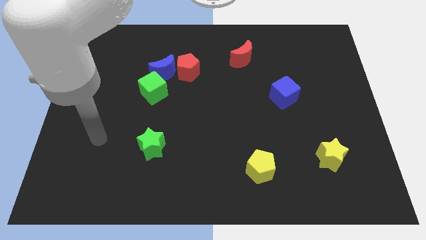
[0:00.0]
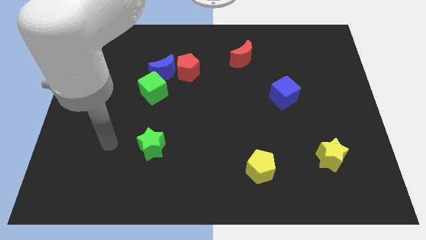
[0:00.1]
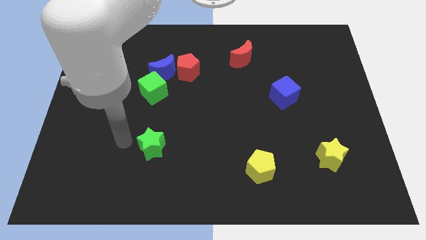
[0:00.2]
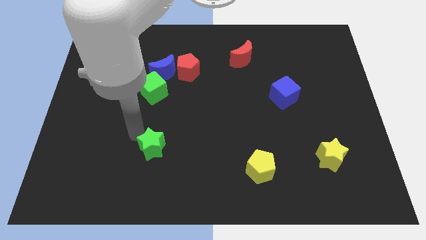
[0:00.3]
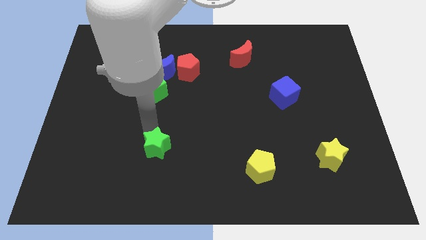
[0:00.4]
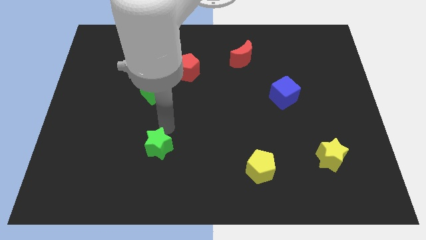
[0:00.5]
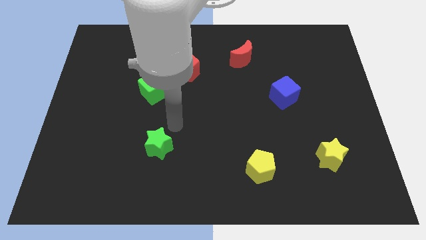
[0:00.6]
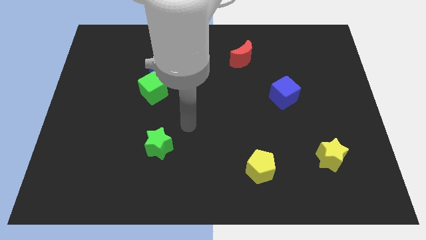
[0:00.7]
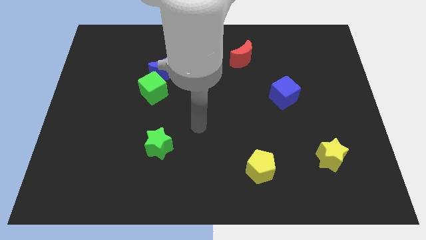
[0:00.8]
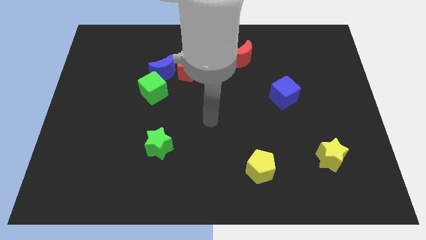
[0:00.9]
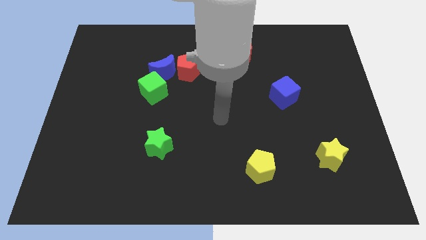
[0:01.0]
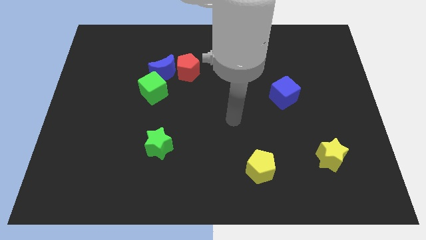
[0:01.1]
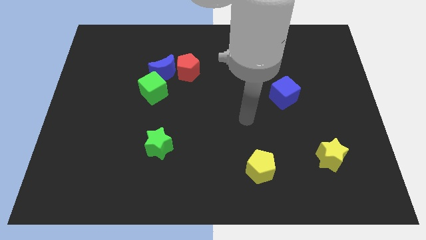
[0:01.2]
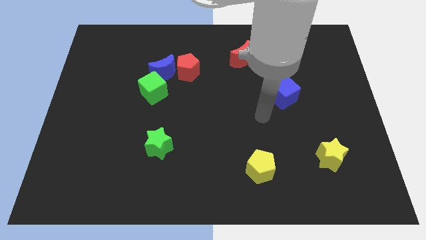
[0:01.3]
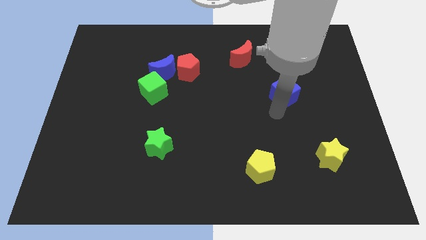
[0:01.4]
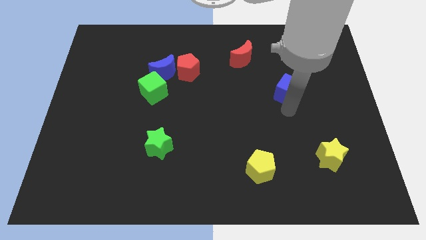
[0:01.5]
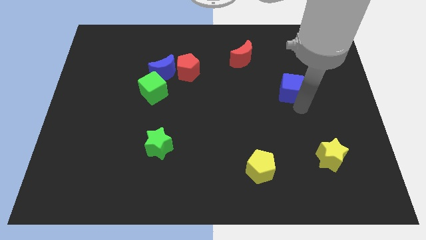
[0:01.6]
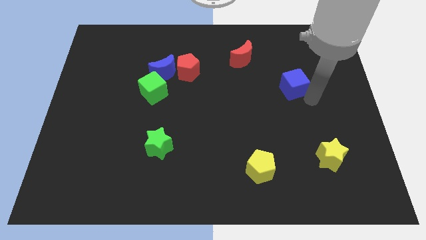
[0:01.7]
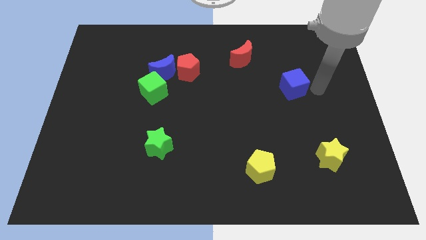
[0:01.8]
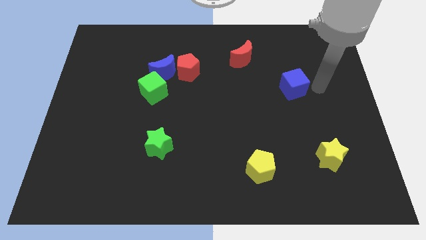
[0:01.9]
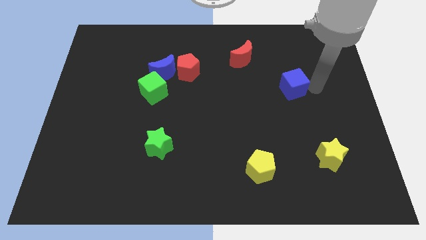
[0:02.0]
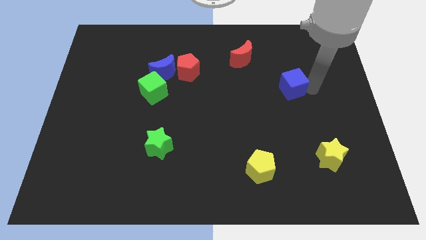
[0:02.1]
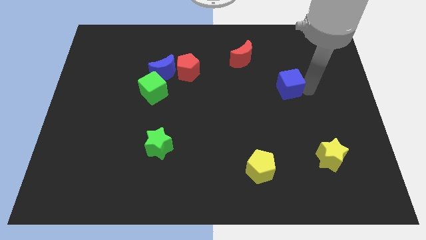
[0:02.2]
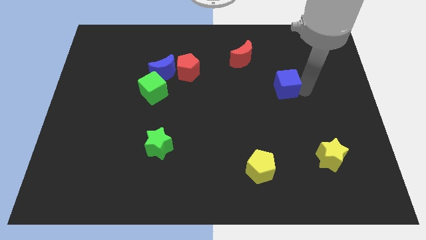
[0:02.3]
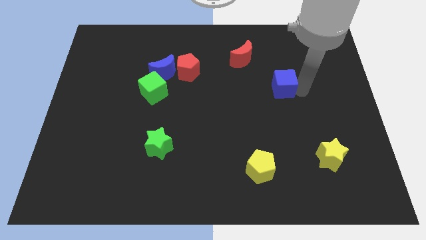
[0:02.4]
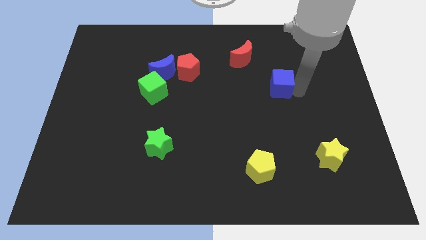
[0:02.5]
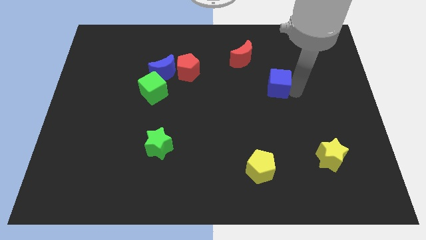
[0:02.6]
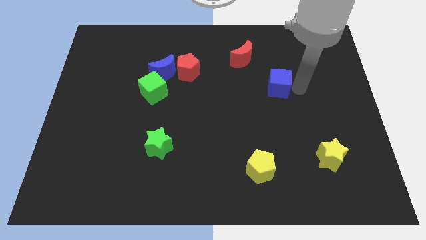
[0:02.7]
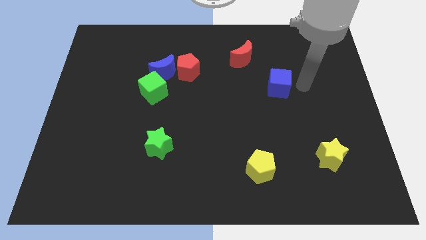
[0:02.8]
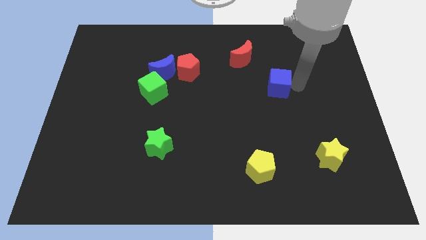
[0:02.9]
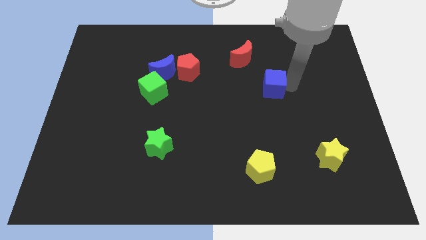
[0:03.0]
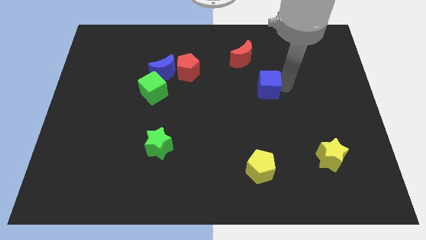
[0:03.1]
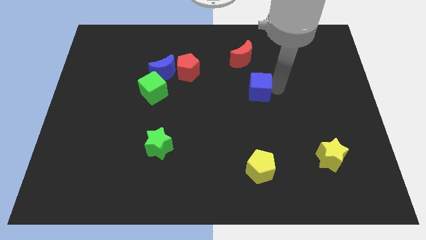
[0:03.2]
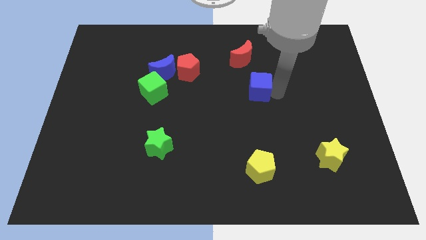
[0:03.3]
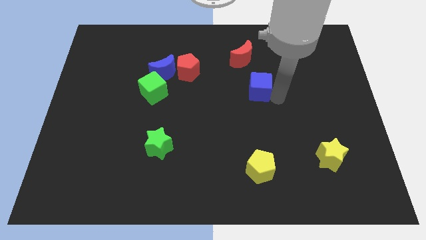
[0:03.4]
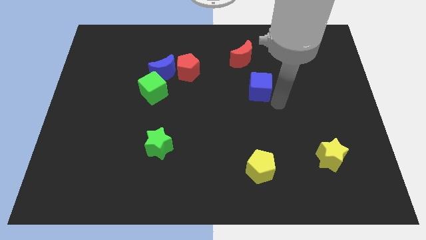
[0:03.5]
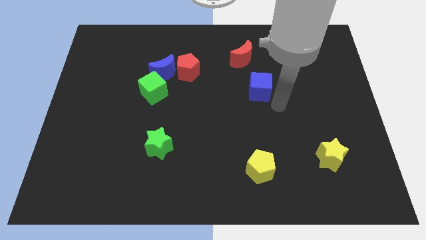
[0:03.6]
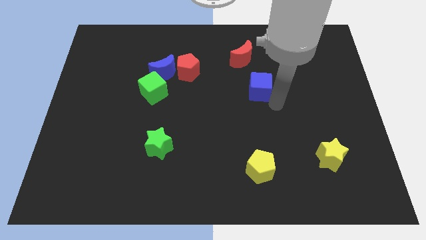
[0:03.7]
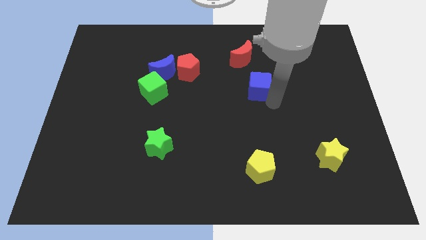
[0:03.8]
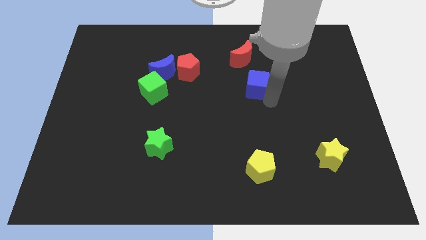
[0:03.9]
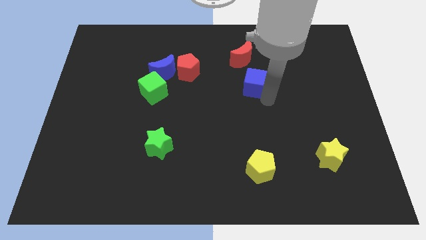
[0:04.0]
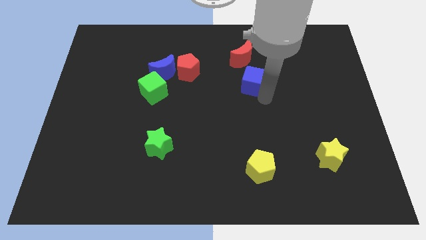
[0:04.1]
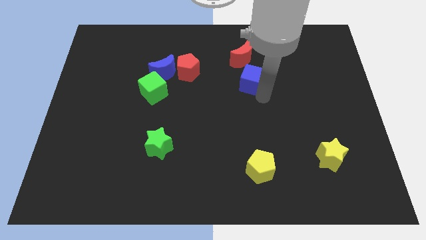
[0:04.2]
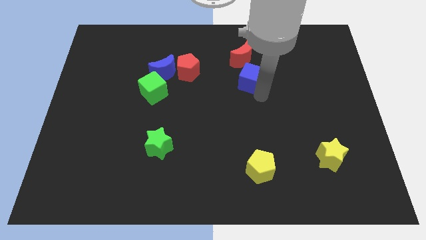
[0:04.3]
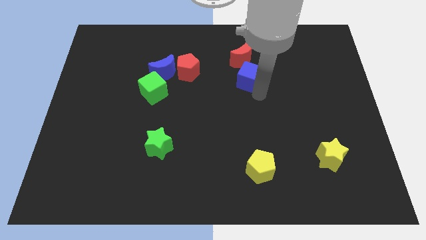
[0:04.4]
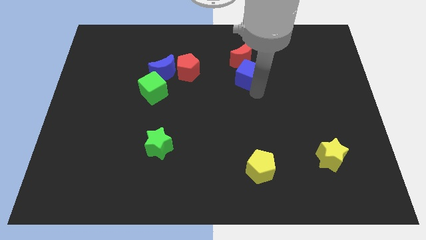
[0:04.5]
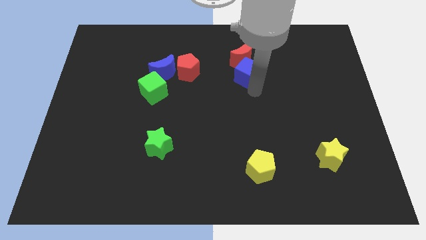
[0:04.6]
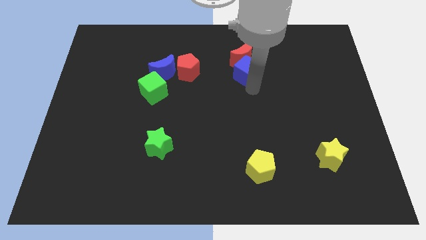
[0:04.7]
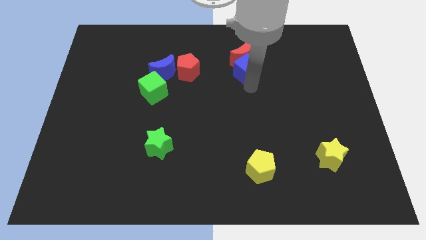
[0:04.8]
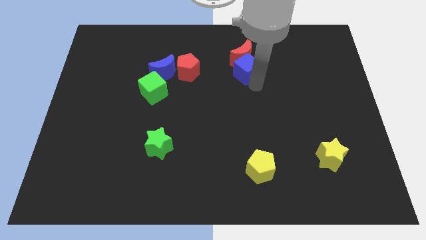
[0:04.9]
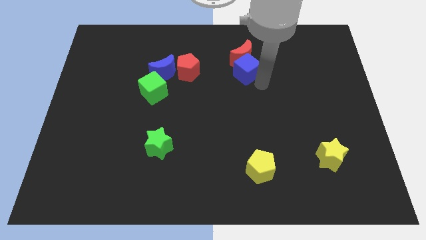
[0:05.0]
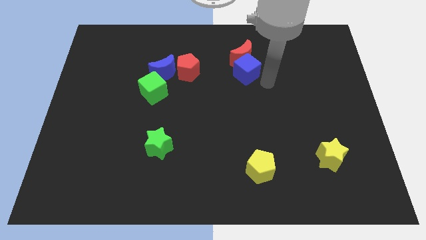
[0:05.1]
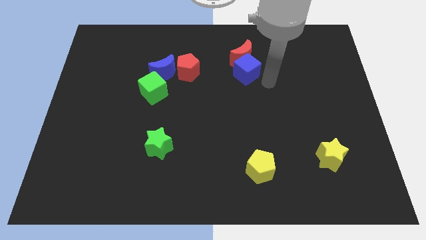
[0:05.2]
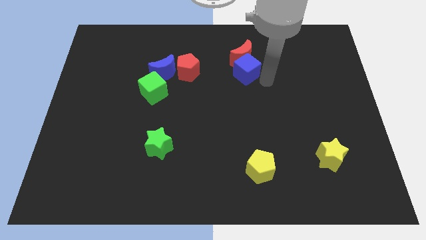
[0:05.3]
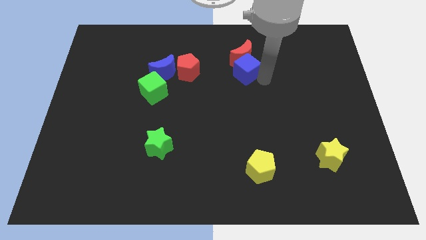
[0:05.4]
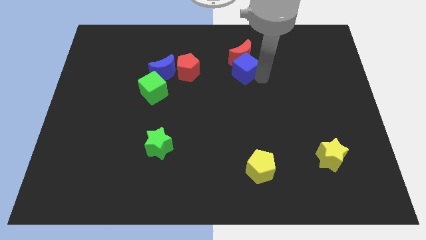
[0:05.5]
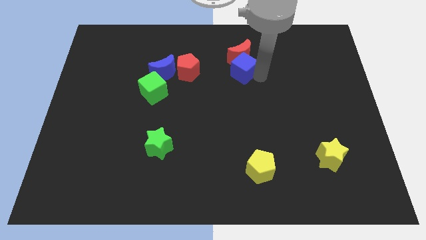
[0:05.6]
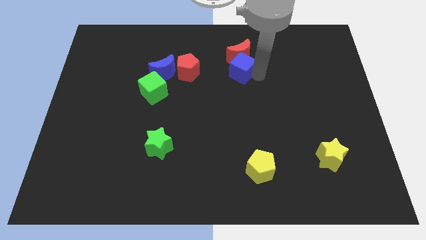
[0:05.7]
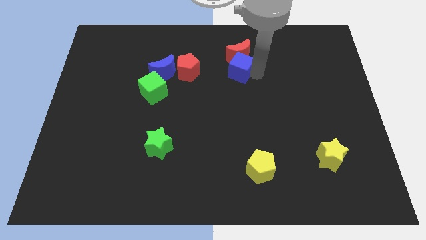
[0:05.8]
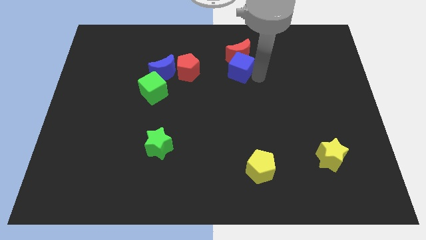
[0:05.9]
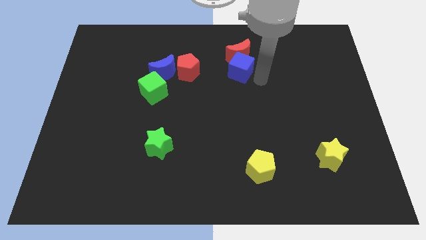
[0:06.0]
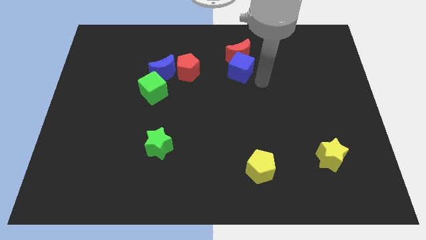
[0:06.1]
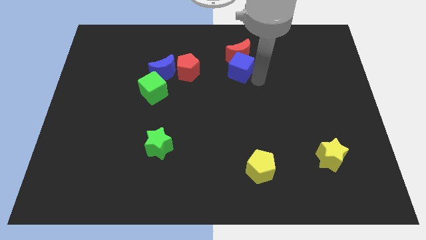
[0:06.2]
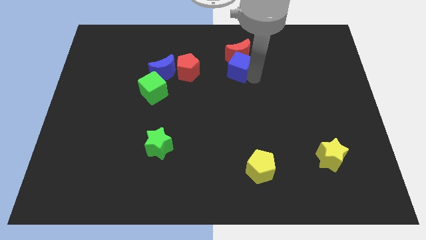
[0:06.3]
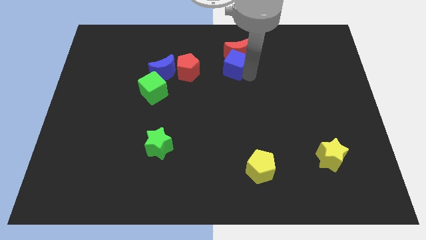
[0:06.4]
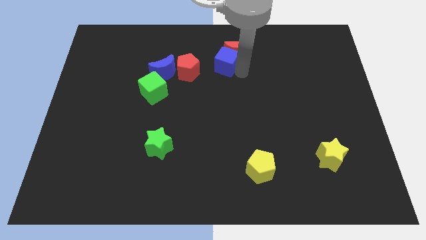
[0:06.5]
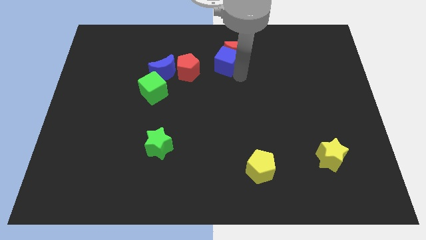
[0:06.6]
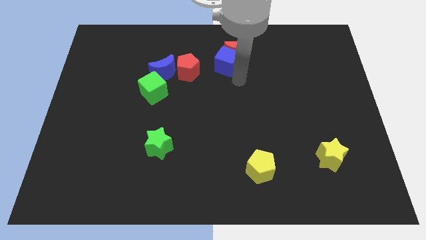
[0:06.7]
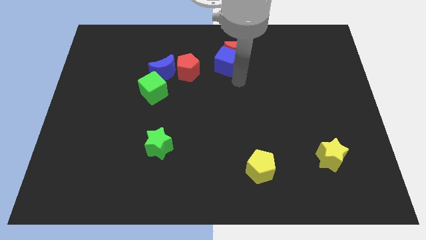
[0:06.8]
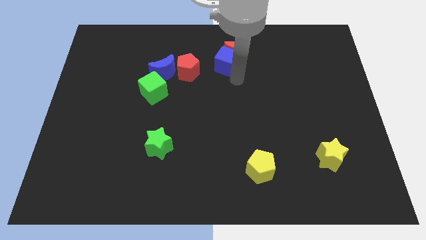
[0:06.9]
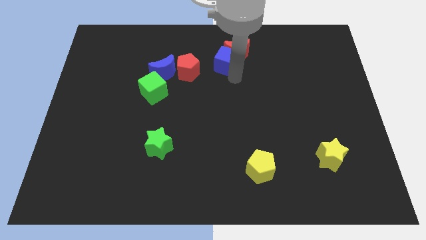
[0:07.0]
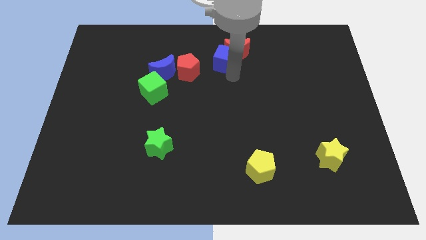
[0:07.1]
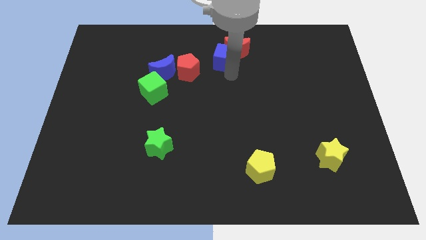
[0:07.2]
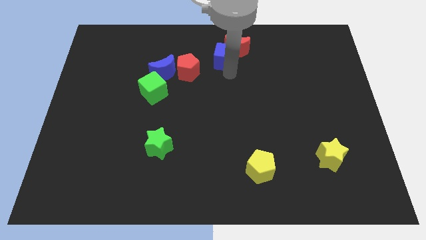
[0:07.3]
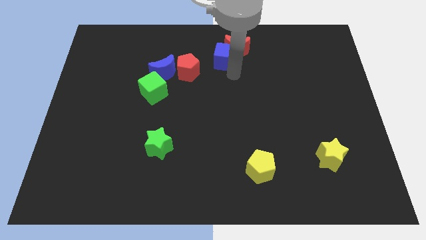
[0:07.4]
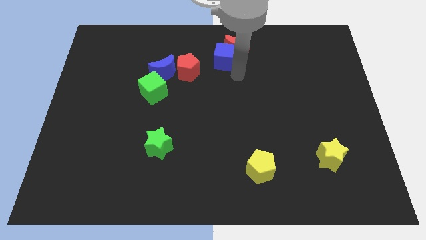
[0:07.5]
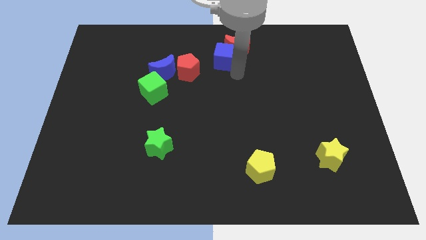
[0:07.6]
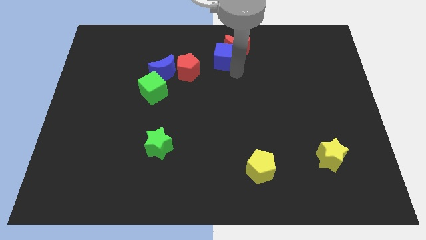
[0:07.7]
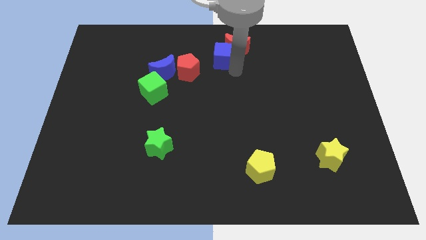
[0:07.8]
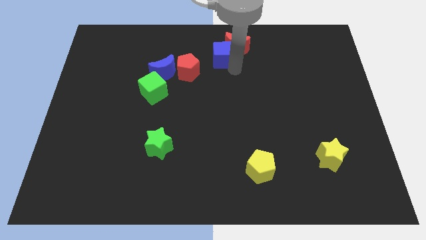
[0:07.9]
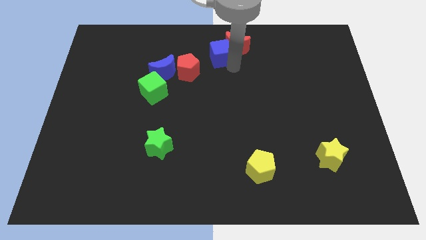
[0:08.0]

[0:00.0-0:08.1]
slide the blue cube to the towards your base
